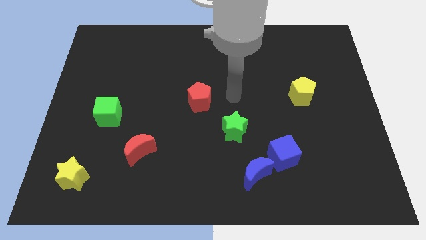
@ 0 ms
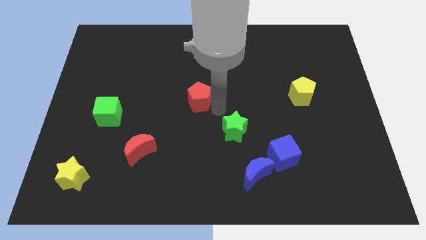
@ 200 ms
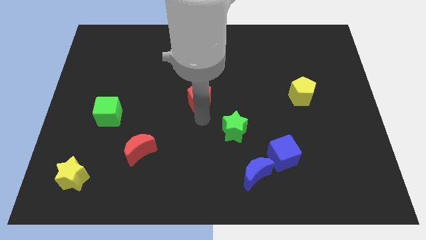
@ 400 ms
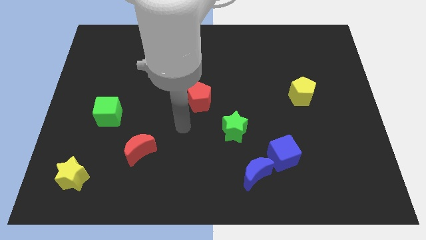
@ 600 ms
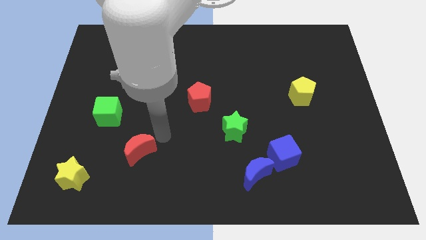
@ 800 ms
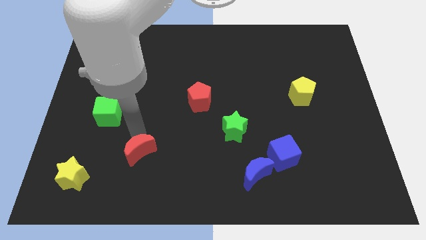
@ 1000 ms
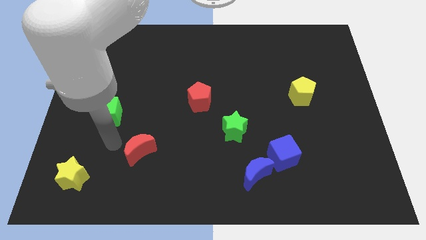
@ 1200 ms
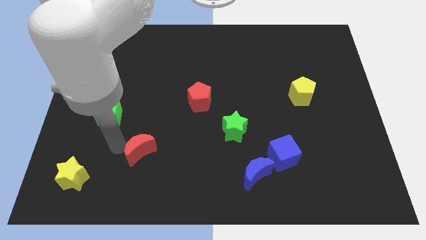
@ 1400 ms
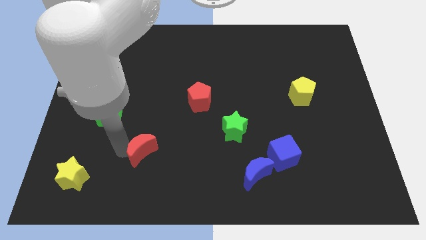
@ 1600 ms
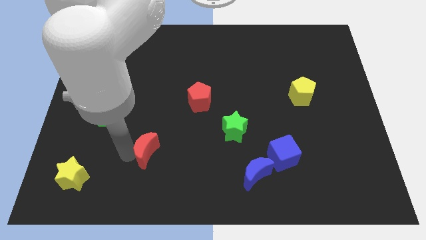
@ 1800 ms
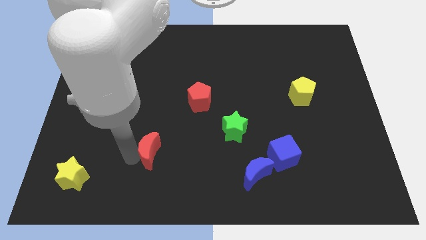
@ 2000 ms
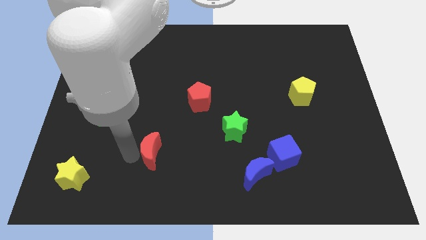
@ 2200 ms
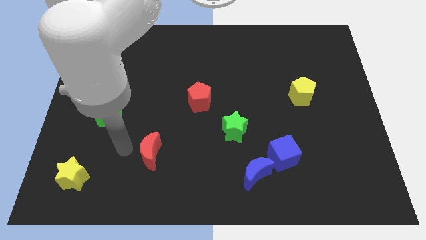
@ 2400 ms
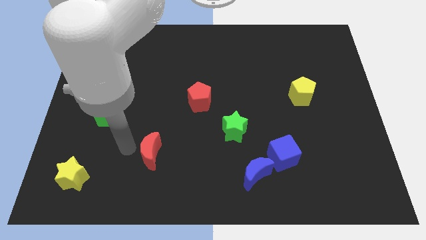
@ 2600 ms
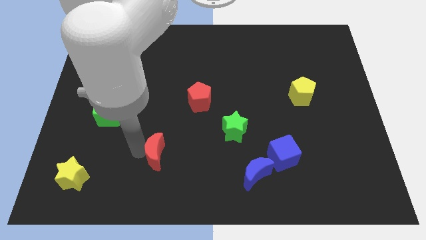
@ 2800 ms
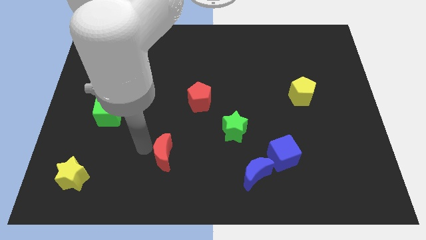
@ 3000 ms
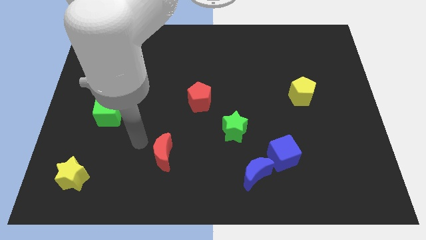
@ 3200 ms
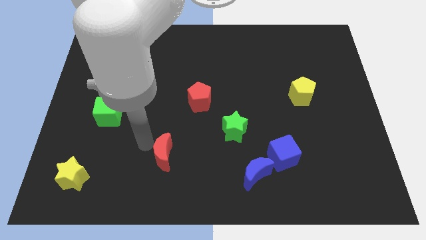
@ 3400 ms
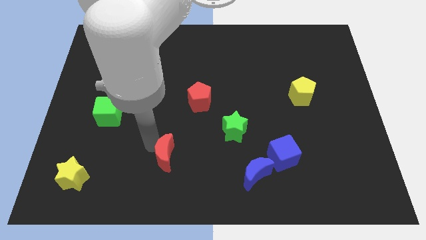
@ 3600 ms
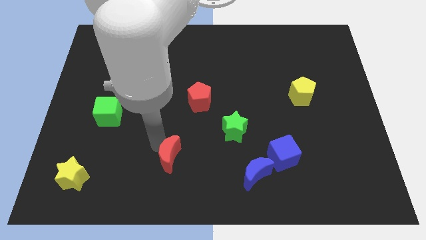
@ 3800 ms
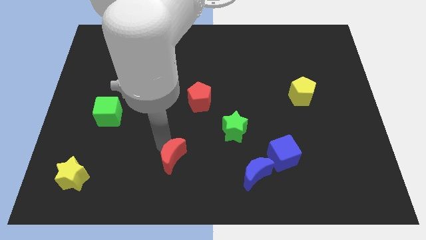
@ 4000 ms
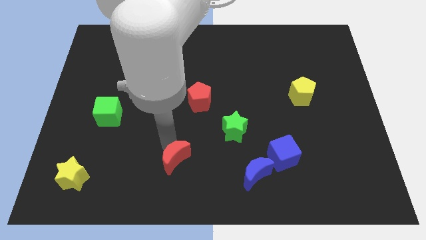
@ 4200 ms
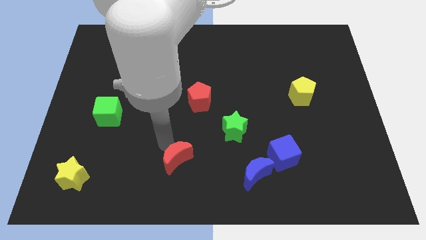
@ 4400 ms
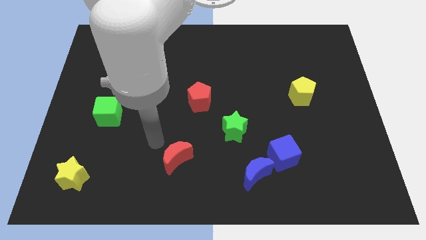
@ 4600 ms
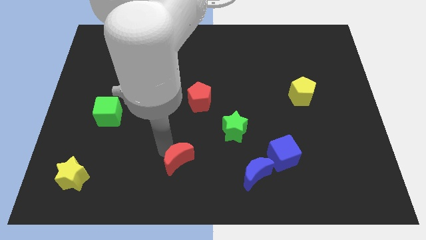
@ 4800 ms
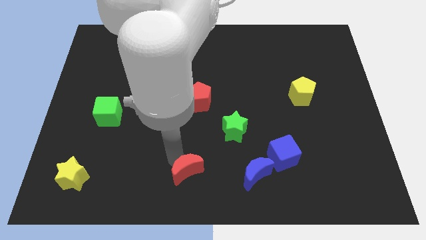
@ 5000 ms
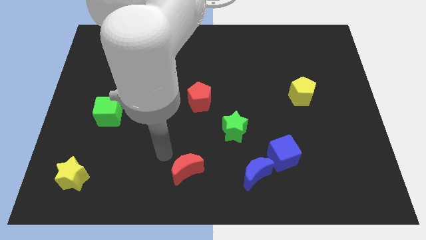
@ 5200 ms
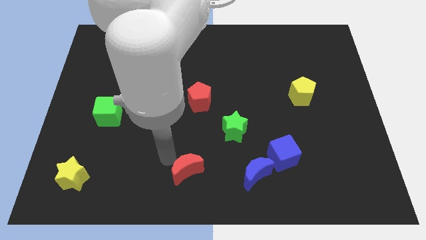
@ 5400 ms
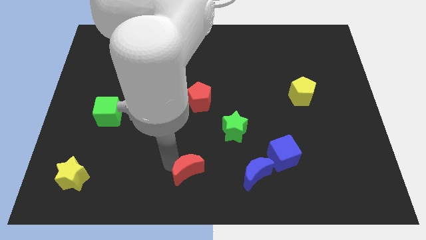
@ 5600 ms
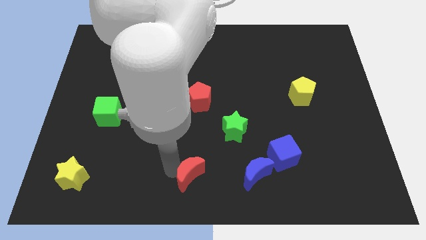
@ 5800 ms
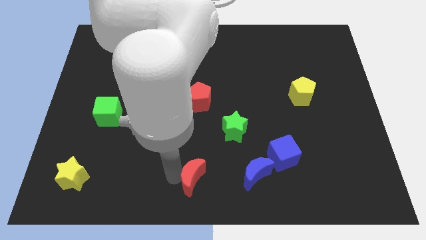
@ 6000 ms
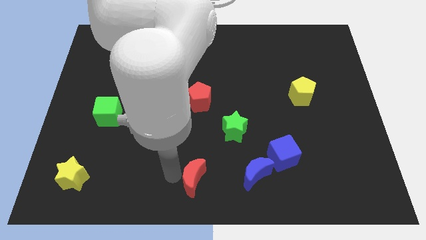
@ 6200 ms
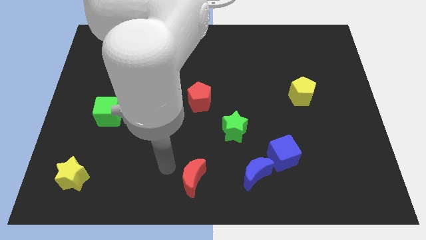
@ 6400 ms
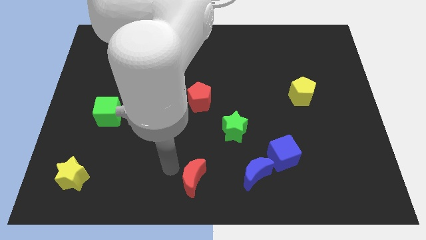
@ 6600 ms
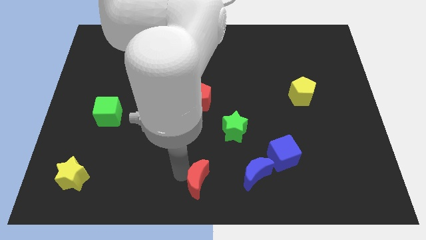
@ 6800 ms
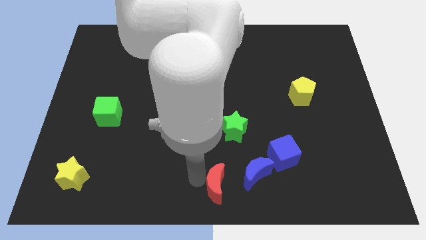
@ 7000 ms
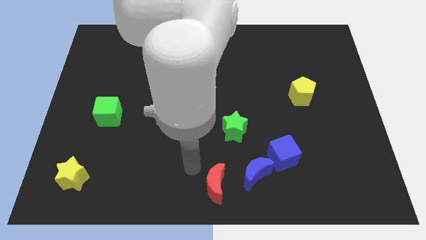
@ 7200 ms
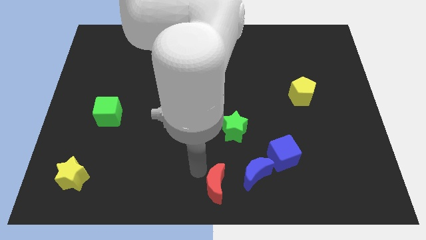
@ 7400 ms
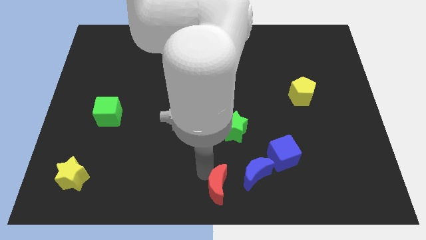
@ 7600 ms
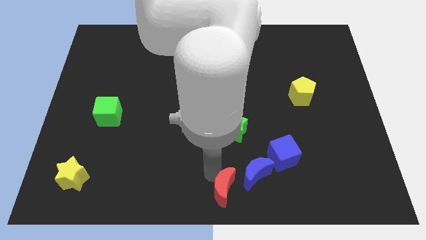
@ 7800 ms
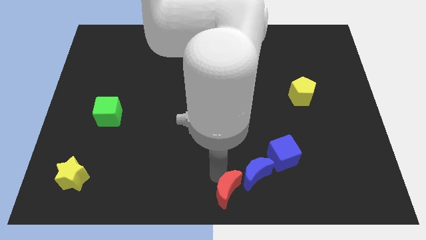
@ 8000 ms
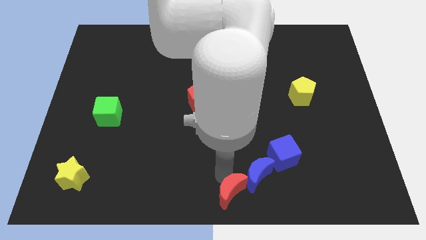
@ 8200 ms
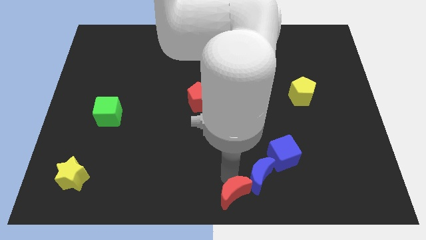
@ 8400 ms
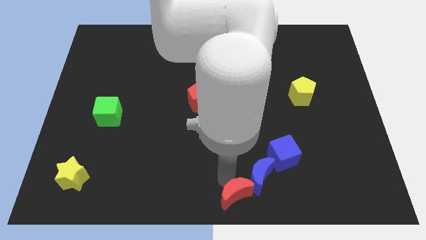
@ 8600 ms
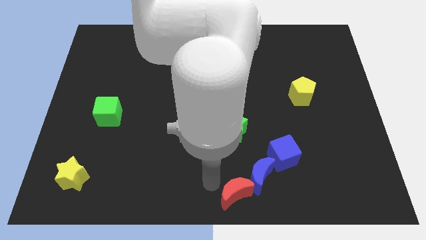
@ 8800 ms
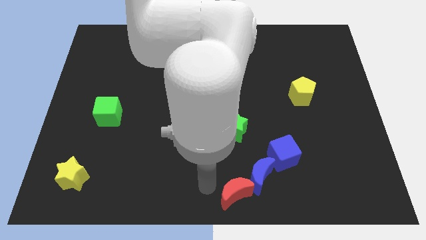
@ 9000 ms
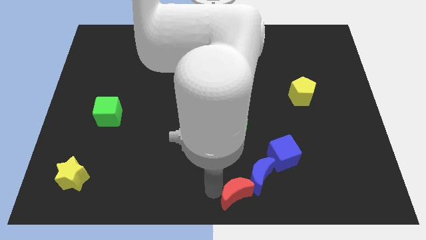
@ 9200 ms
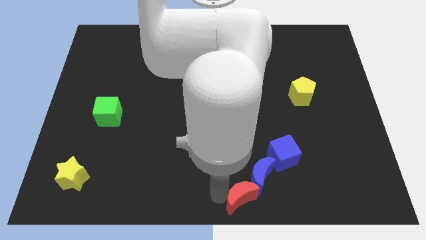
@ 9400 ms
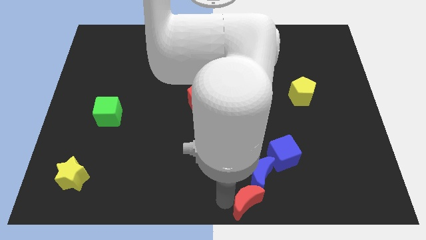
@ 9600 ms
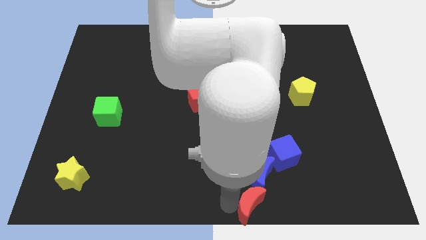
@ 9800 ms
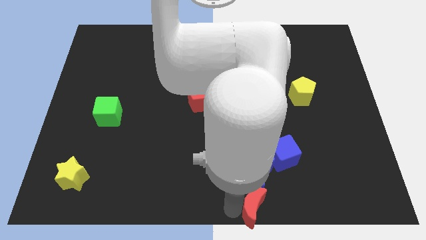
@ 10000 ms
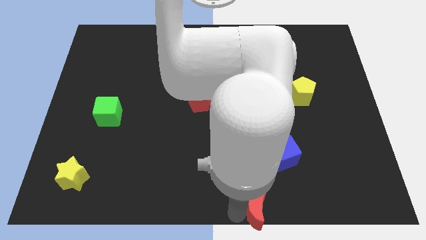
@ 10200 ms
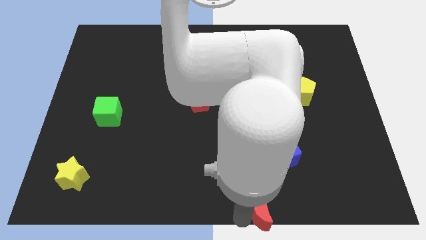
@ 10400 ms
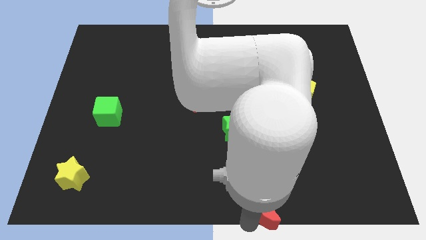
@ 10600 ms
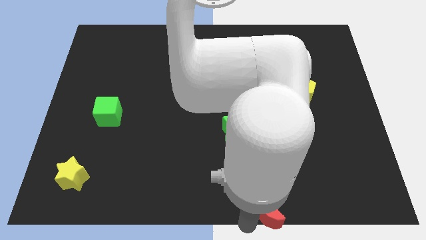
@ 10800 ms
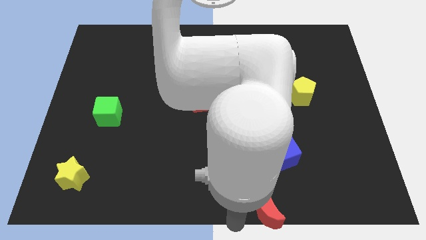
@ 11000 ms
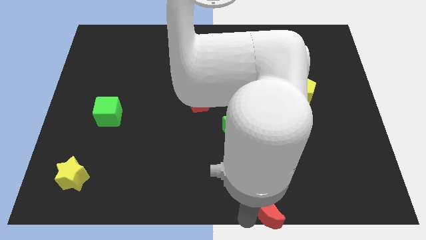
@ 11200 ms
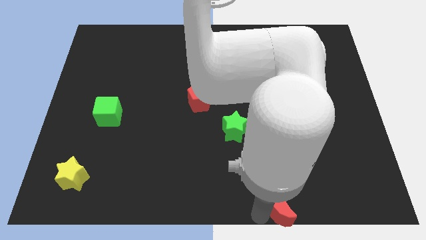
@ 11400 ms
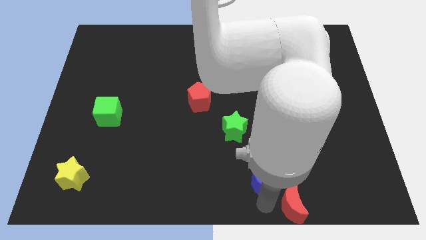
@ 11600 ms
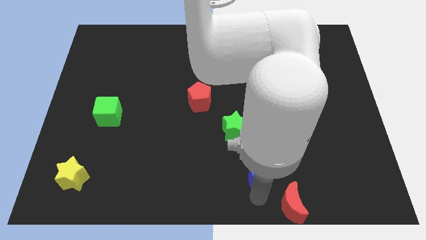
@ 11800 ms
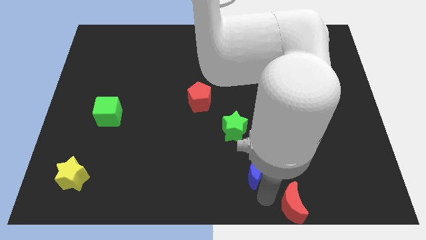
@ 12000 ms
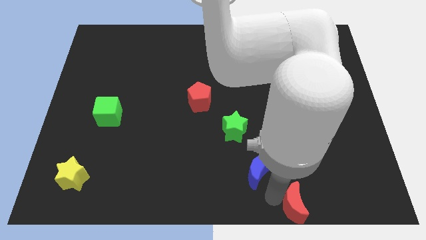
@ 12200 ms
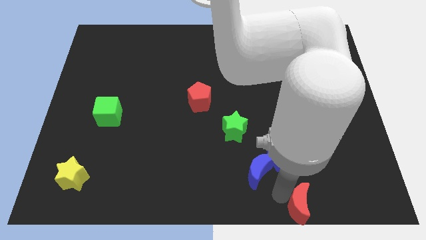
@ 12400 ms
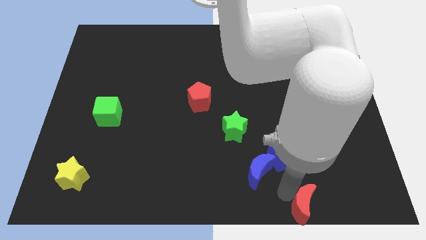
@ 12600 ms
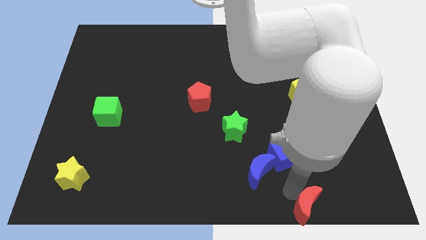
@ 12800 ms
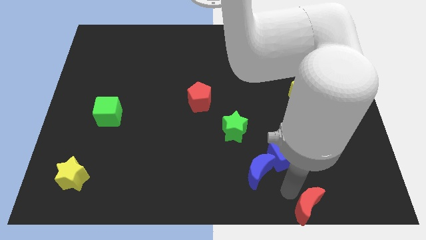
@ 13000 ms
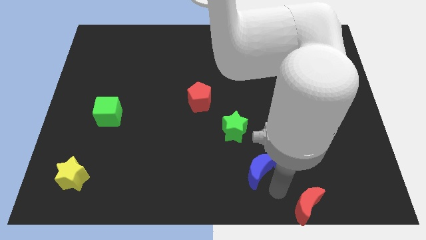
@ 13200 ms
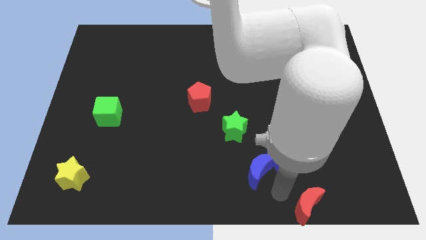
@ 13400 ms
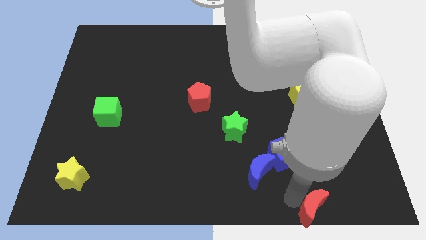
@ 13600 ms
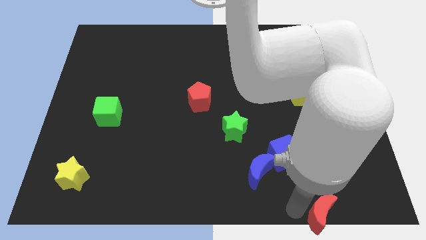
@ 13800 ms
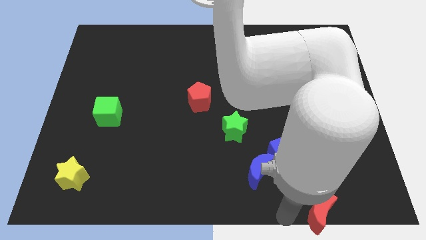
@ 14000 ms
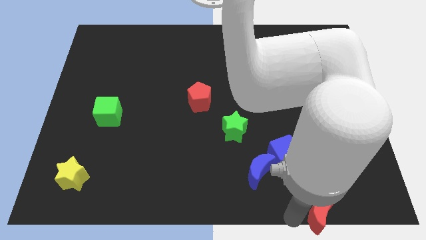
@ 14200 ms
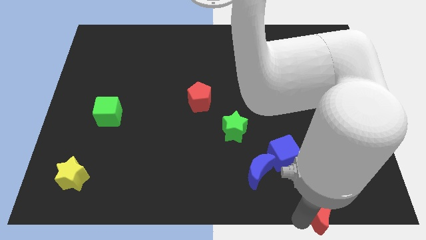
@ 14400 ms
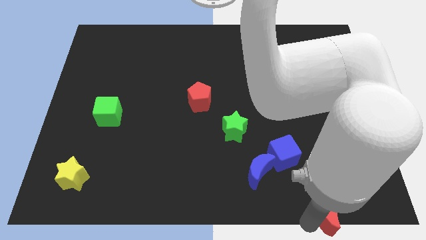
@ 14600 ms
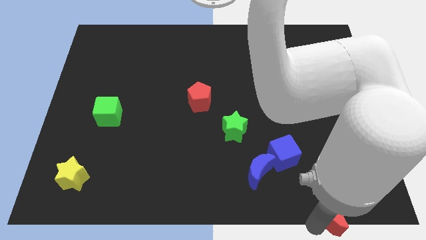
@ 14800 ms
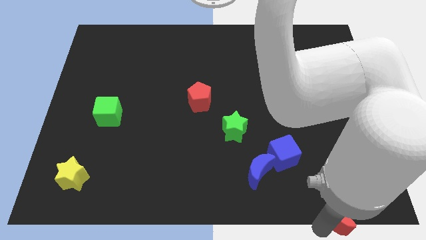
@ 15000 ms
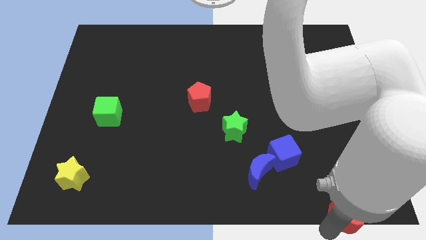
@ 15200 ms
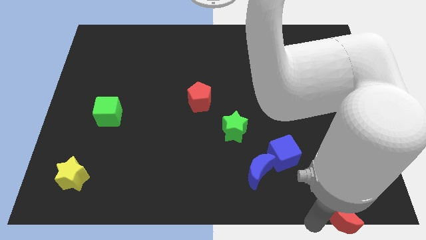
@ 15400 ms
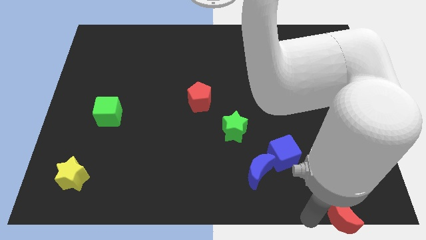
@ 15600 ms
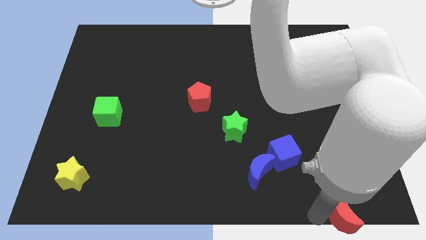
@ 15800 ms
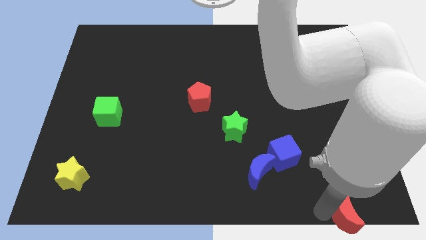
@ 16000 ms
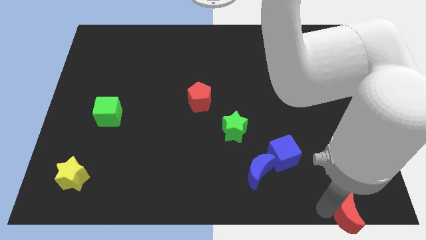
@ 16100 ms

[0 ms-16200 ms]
put the red moon to the bottom right of the board
